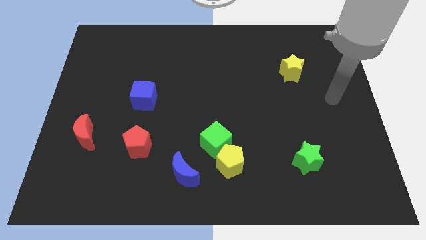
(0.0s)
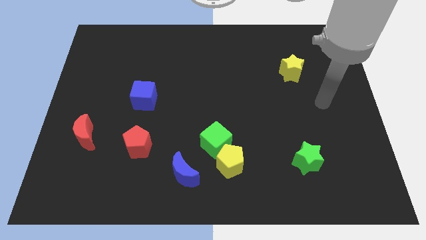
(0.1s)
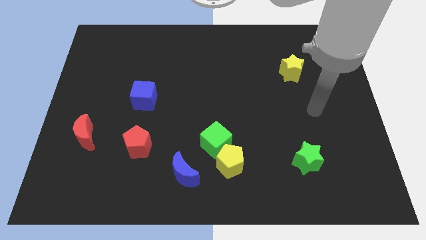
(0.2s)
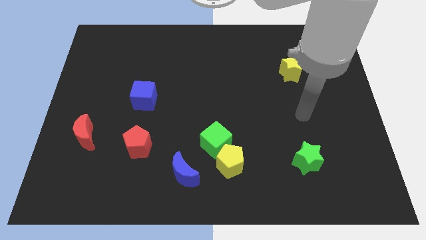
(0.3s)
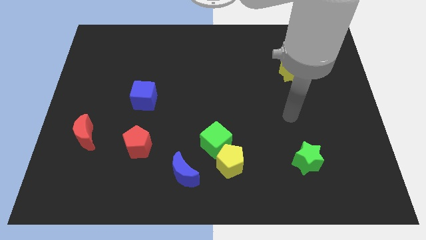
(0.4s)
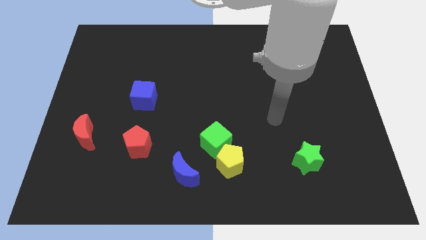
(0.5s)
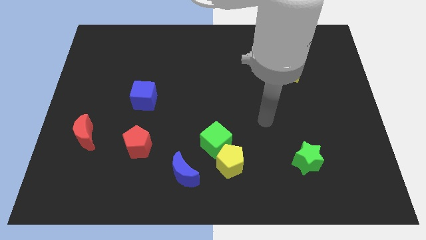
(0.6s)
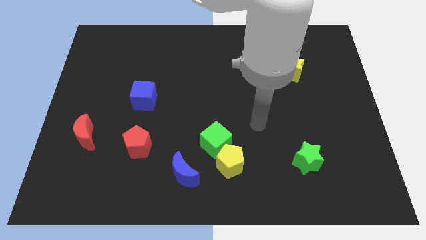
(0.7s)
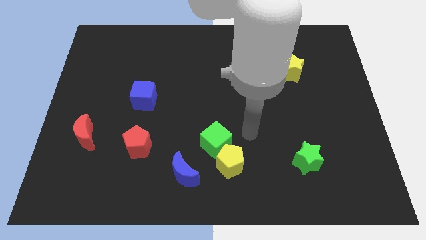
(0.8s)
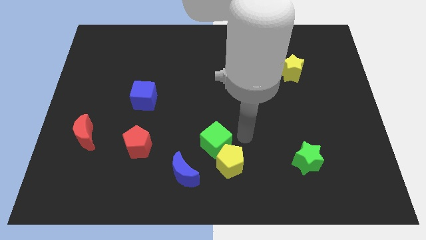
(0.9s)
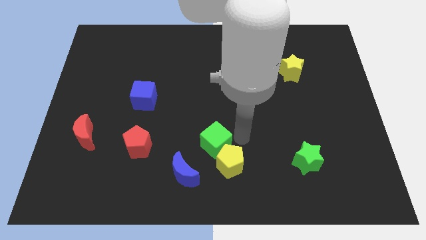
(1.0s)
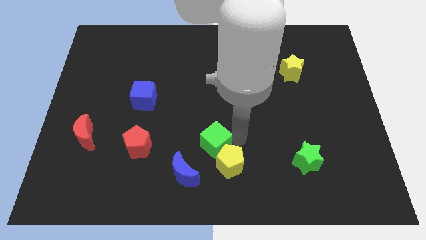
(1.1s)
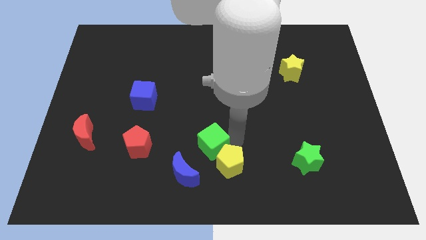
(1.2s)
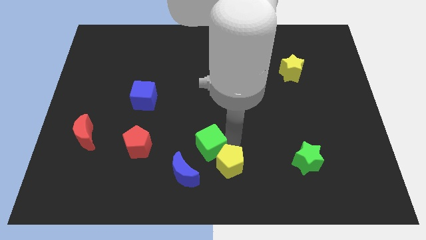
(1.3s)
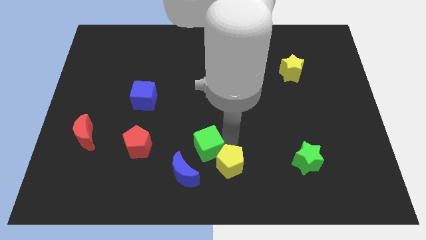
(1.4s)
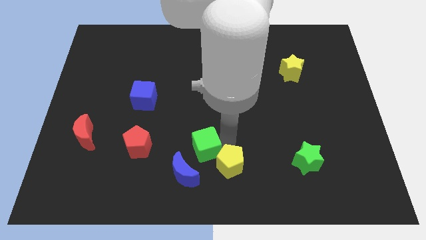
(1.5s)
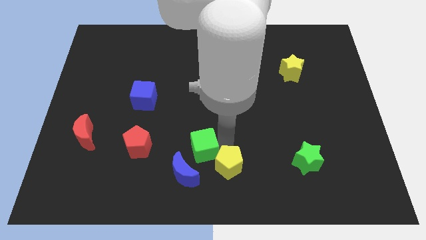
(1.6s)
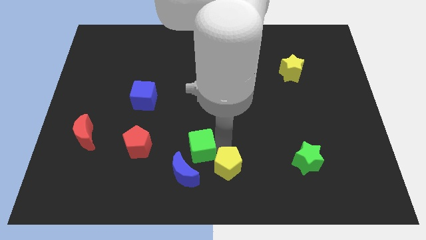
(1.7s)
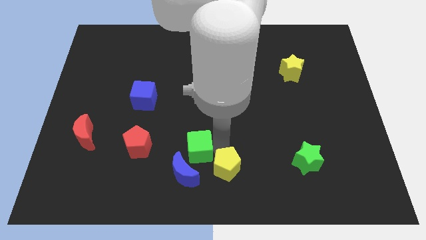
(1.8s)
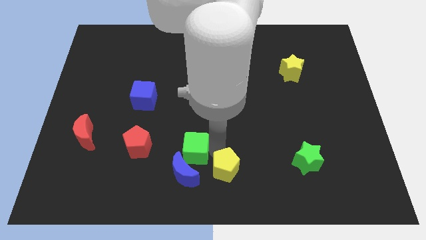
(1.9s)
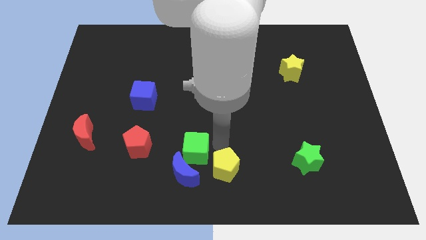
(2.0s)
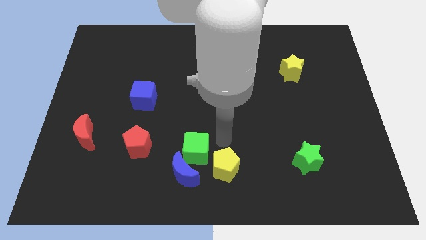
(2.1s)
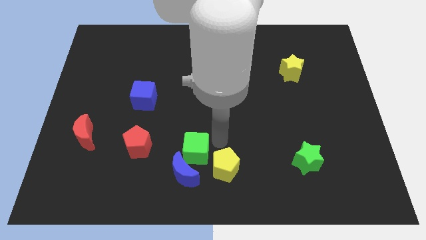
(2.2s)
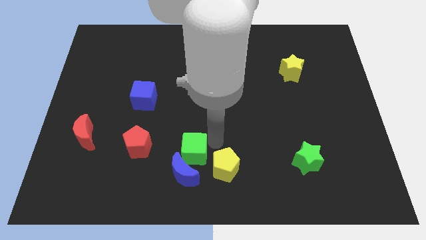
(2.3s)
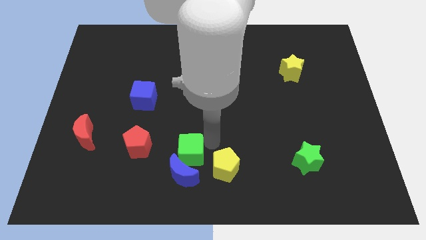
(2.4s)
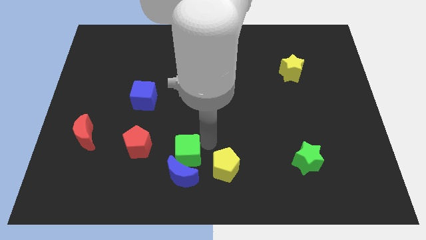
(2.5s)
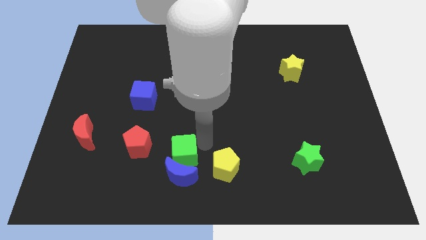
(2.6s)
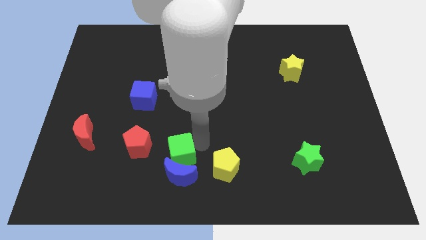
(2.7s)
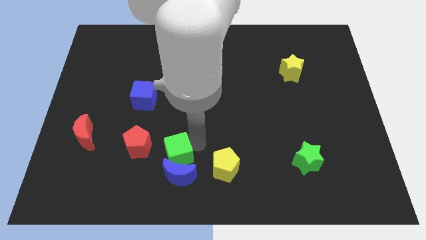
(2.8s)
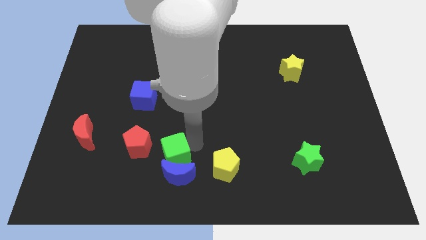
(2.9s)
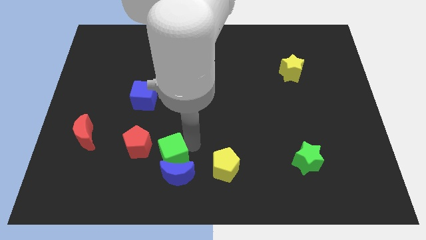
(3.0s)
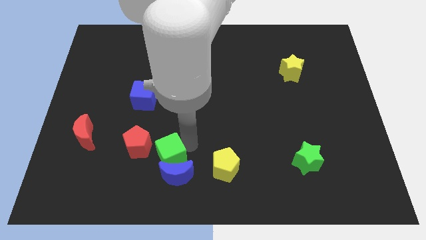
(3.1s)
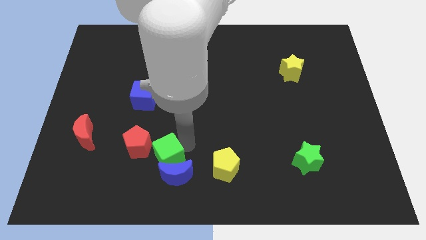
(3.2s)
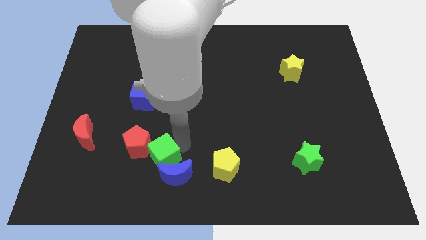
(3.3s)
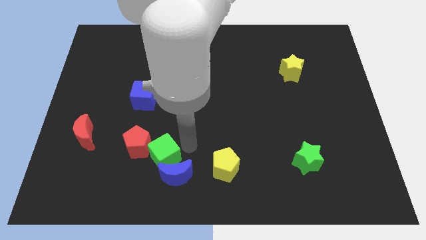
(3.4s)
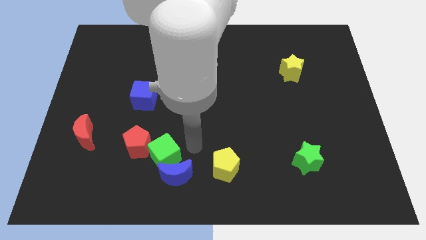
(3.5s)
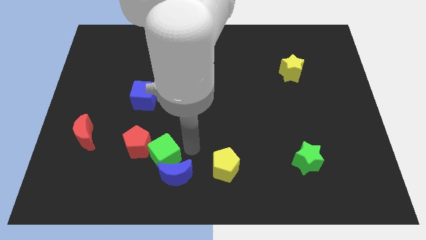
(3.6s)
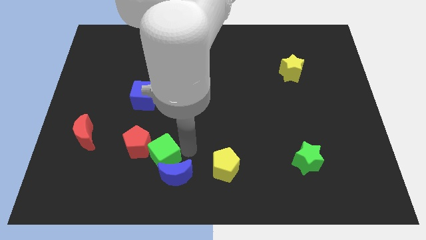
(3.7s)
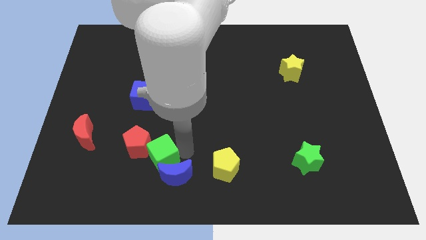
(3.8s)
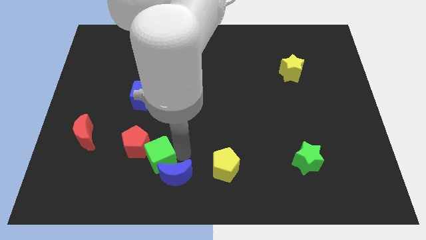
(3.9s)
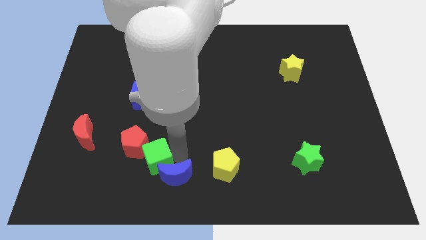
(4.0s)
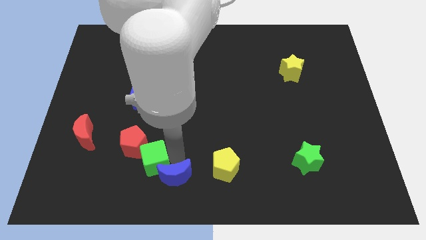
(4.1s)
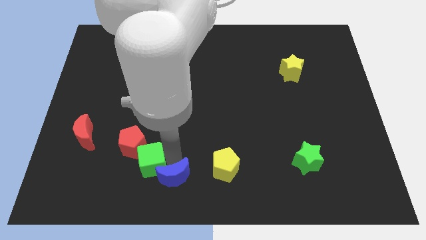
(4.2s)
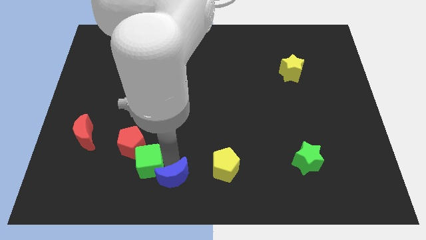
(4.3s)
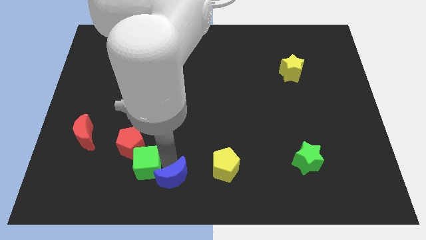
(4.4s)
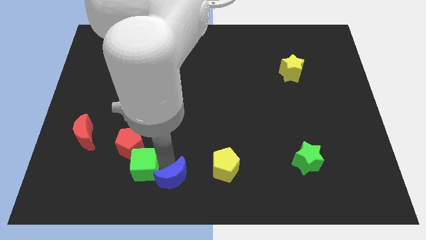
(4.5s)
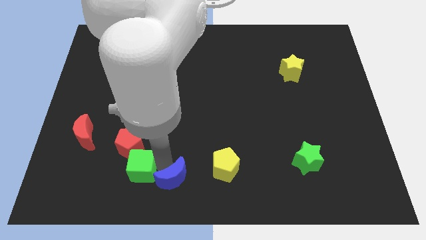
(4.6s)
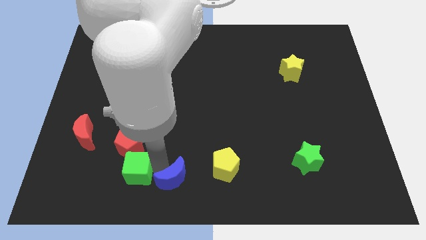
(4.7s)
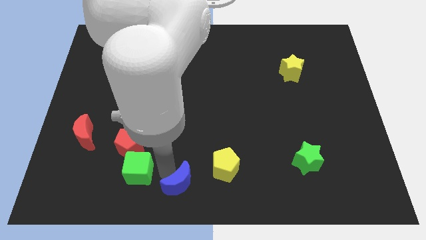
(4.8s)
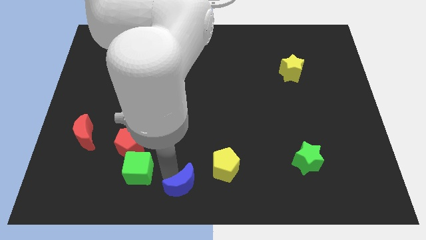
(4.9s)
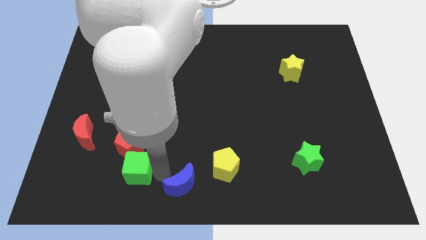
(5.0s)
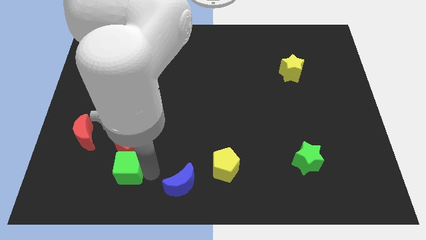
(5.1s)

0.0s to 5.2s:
push the green cube to the bottom left side of the red pentagon

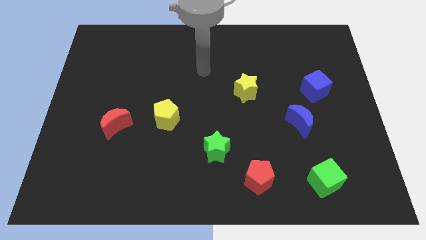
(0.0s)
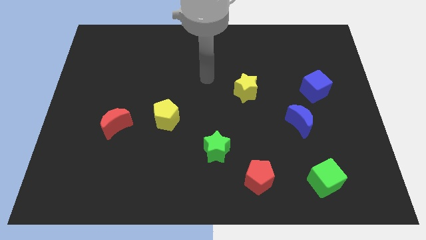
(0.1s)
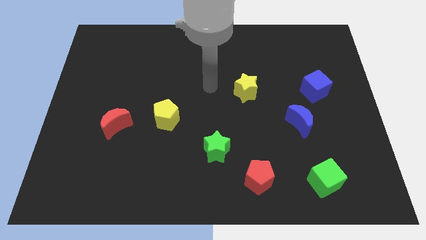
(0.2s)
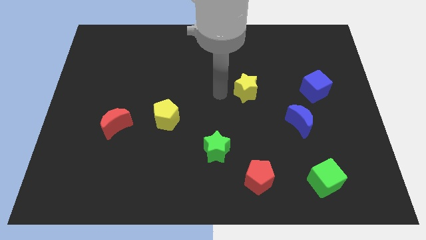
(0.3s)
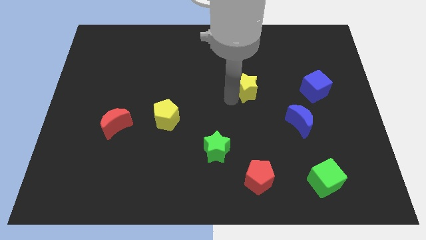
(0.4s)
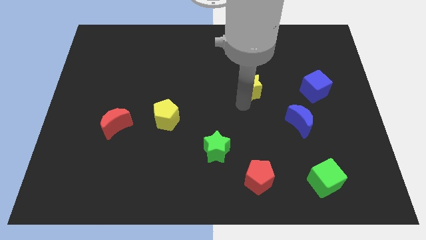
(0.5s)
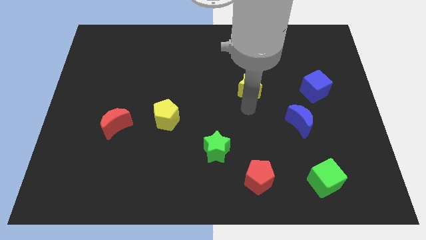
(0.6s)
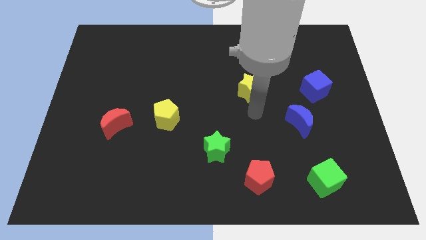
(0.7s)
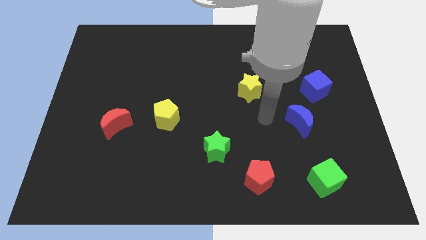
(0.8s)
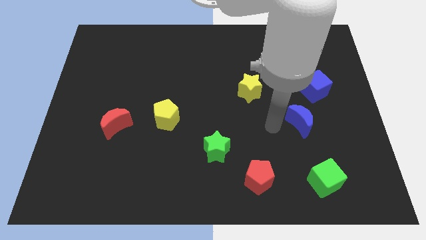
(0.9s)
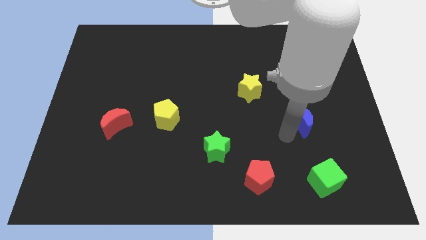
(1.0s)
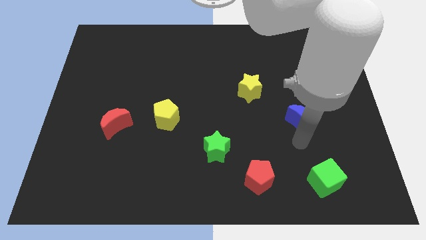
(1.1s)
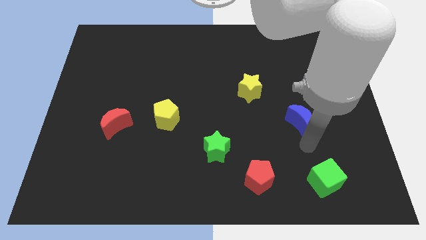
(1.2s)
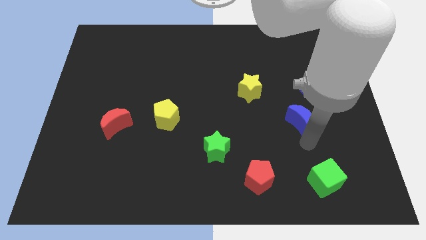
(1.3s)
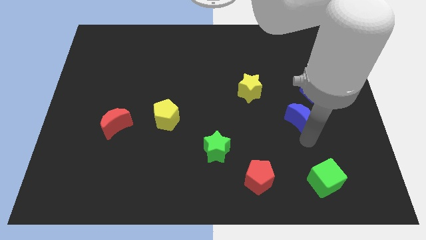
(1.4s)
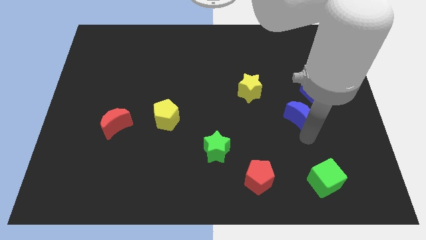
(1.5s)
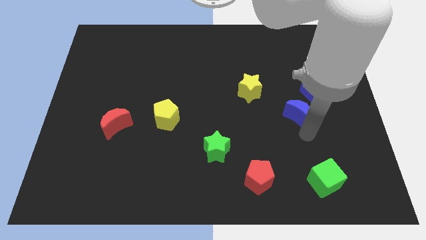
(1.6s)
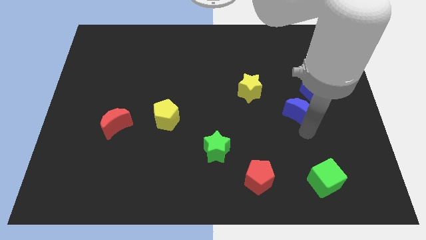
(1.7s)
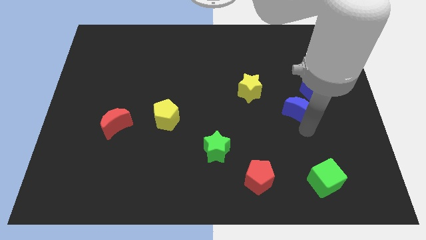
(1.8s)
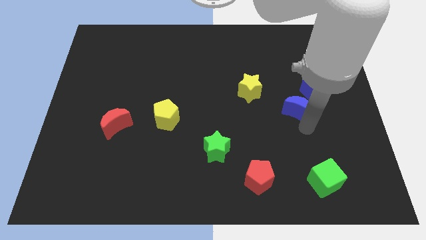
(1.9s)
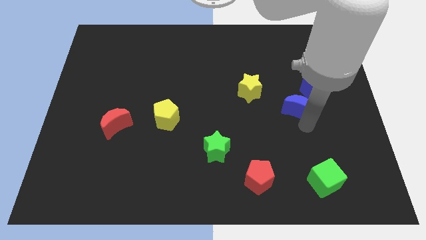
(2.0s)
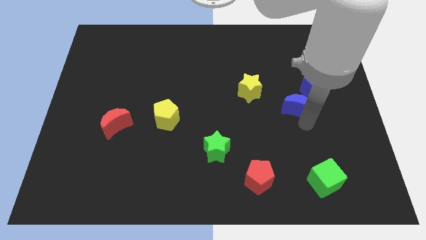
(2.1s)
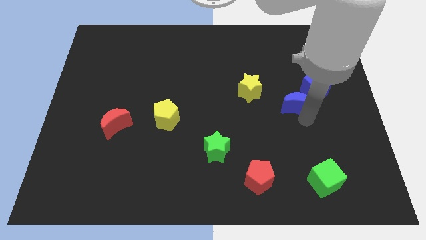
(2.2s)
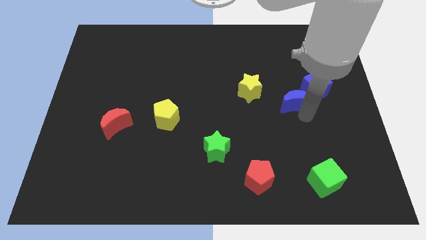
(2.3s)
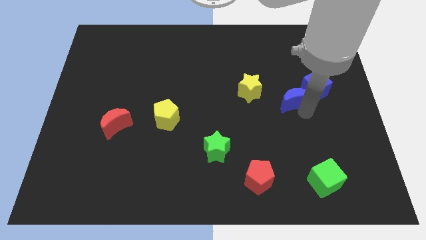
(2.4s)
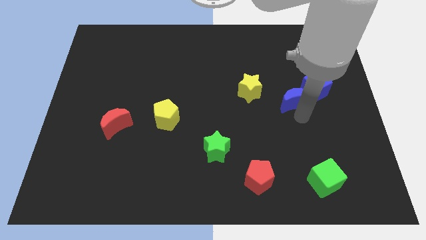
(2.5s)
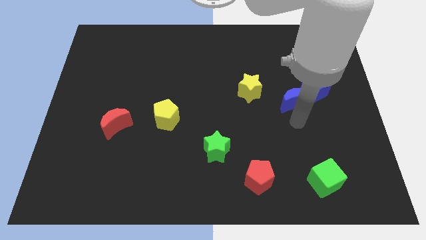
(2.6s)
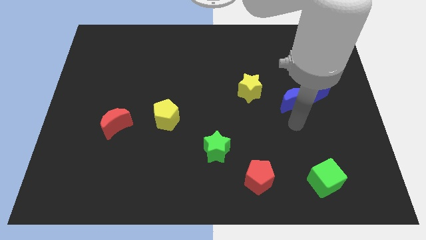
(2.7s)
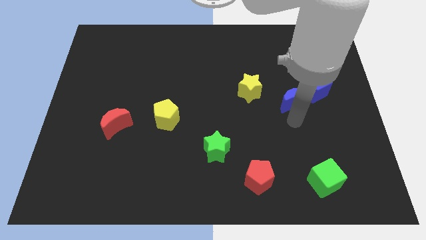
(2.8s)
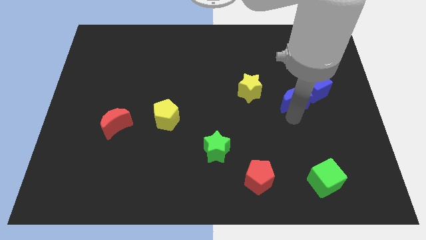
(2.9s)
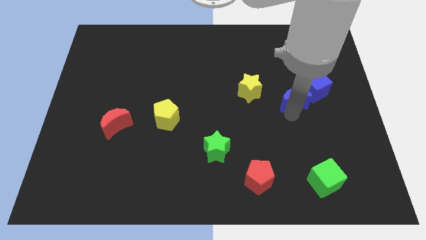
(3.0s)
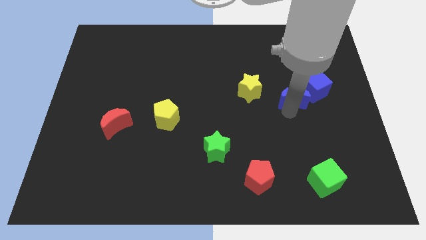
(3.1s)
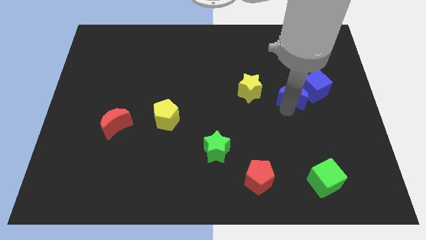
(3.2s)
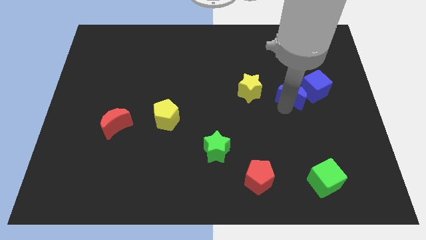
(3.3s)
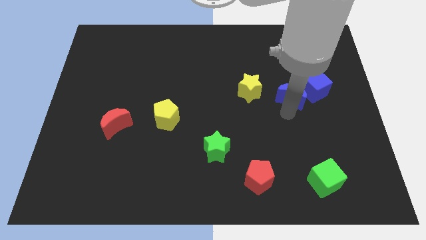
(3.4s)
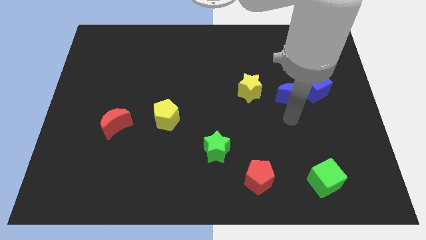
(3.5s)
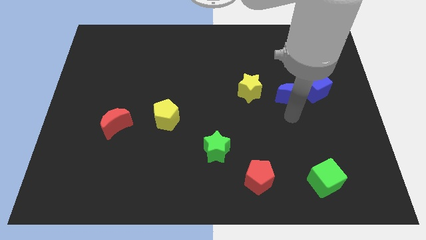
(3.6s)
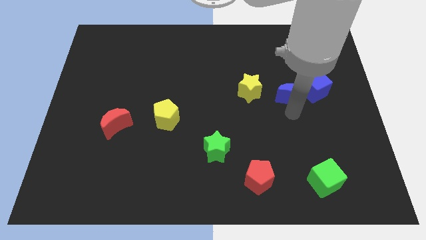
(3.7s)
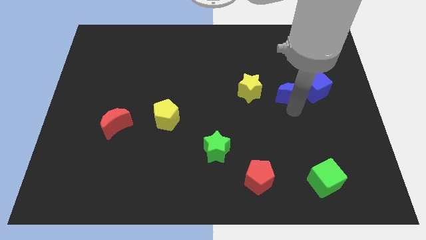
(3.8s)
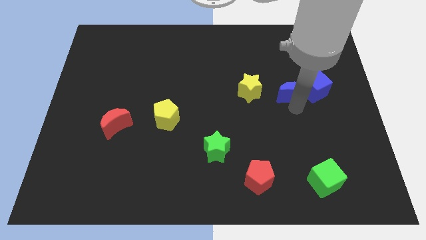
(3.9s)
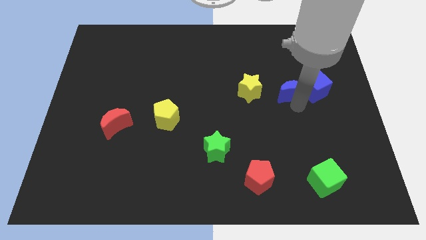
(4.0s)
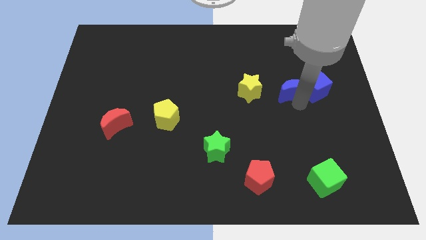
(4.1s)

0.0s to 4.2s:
move the blue moon to the top left side of the blue cube
